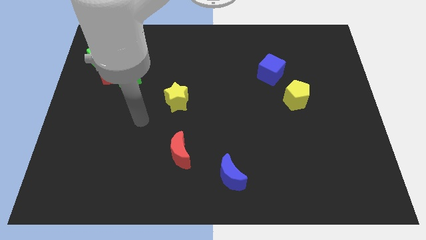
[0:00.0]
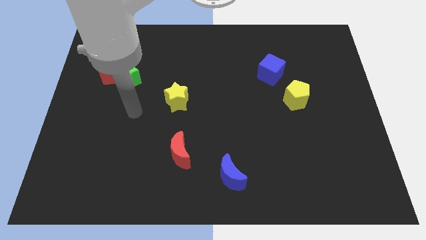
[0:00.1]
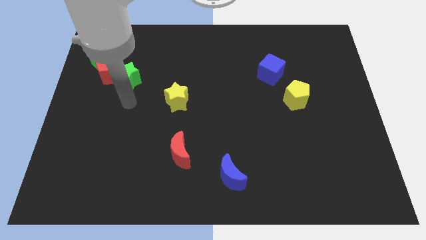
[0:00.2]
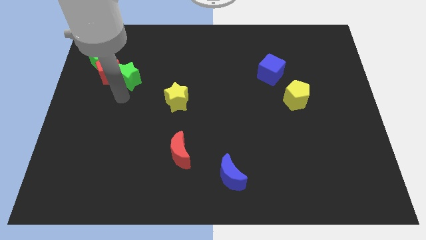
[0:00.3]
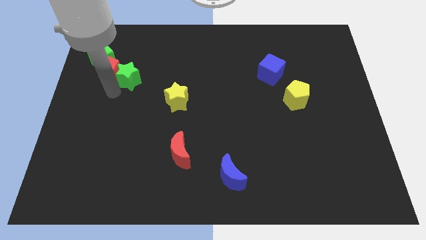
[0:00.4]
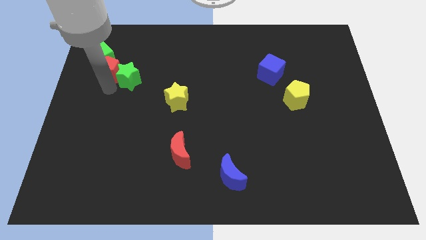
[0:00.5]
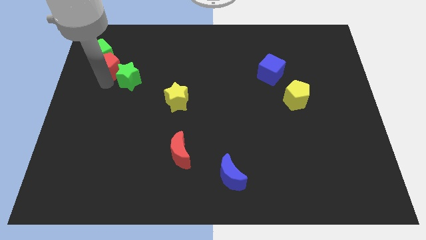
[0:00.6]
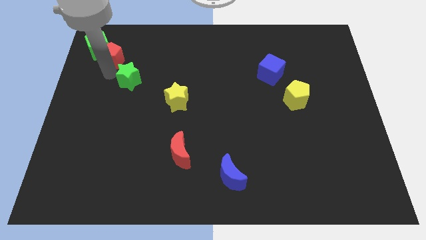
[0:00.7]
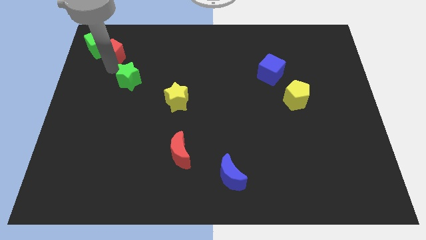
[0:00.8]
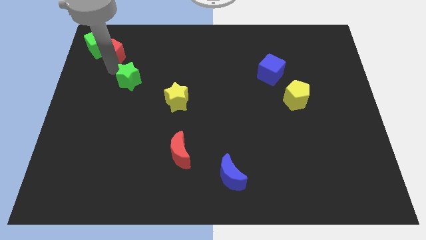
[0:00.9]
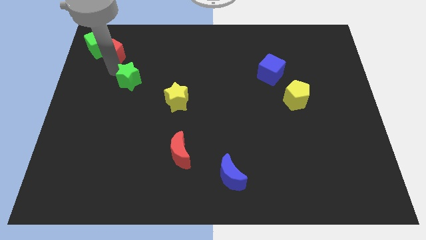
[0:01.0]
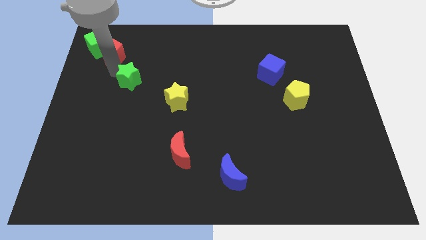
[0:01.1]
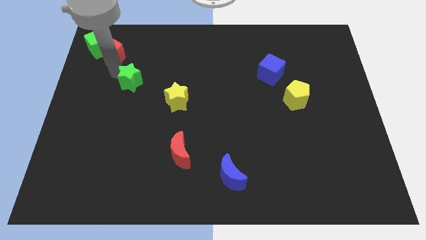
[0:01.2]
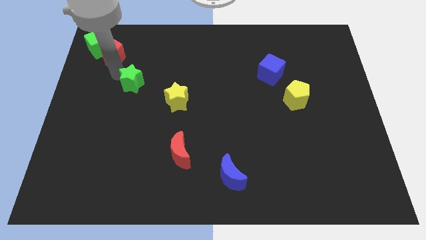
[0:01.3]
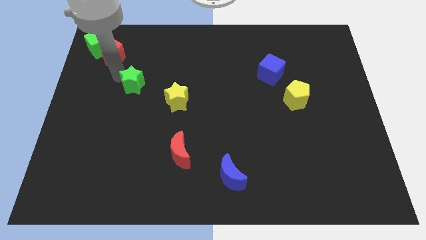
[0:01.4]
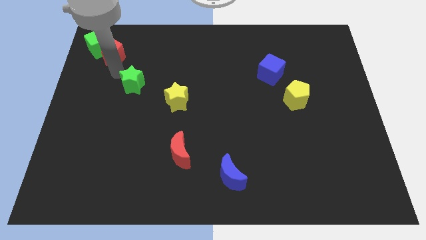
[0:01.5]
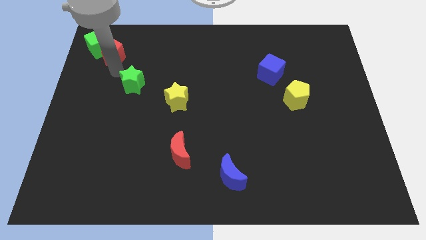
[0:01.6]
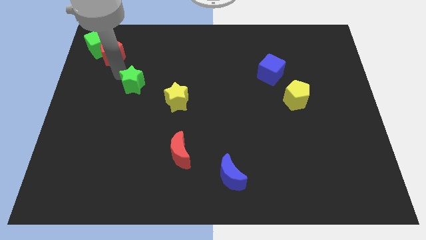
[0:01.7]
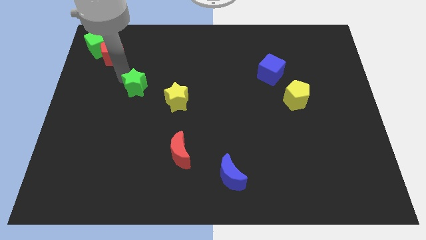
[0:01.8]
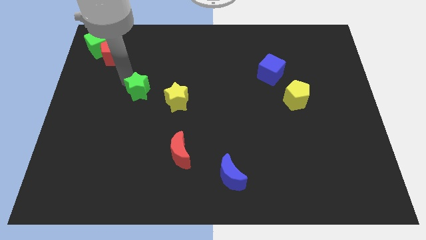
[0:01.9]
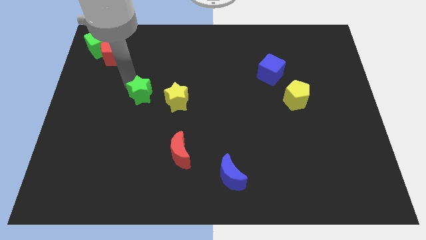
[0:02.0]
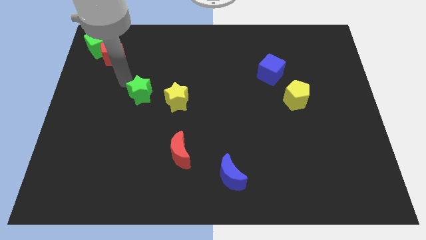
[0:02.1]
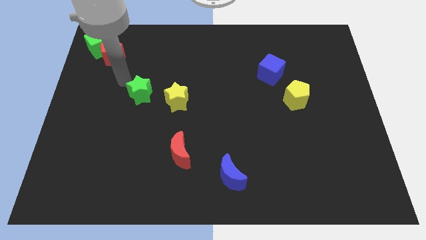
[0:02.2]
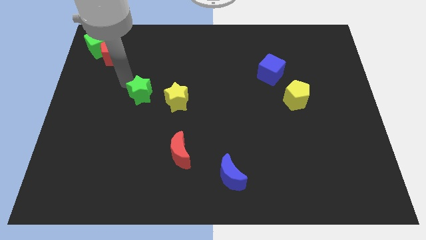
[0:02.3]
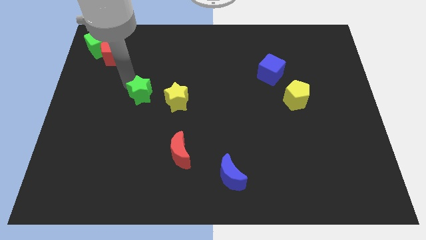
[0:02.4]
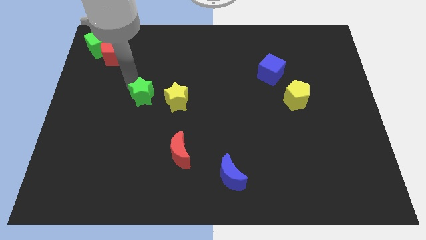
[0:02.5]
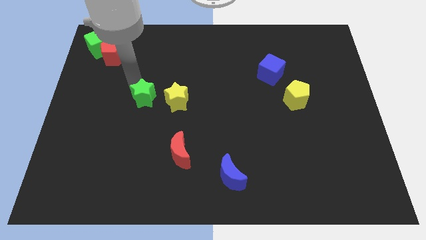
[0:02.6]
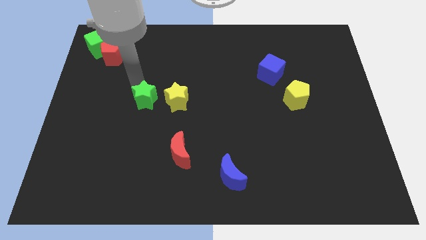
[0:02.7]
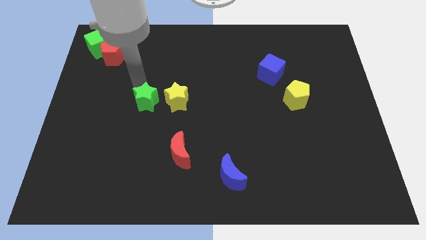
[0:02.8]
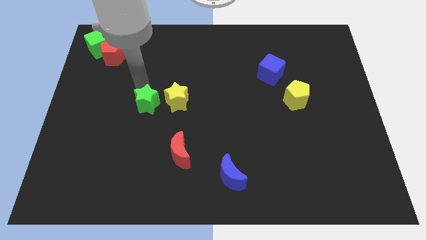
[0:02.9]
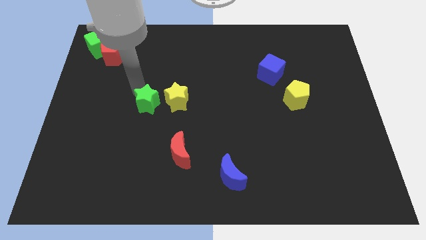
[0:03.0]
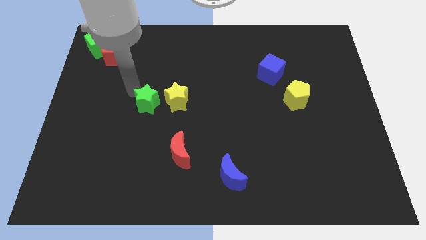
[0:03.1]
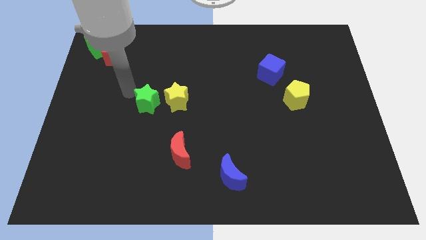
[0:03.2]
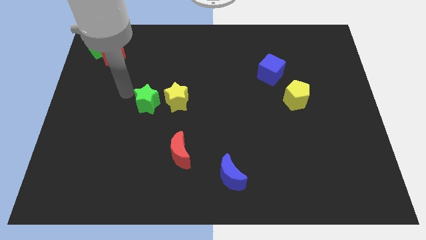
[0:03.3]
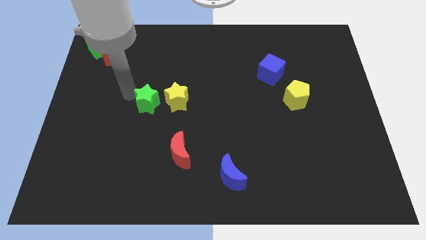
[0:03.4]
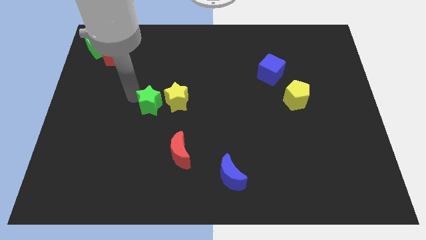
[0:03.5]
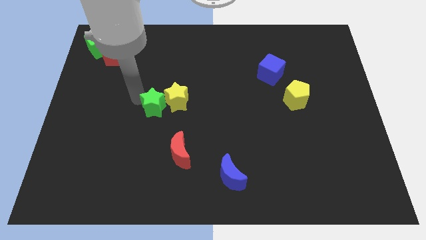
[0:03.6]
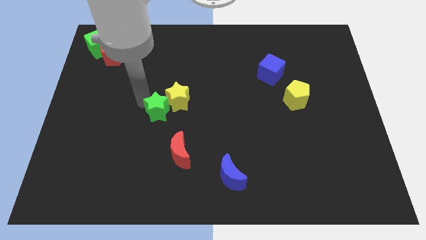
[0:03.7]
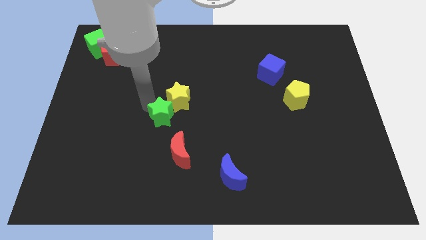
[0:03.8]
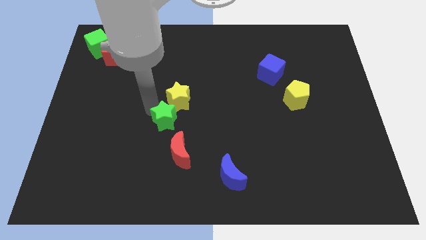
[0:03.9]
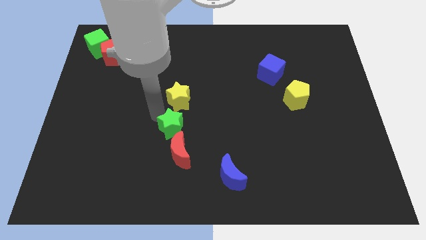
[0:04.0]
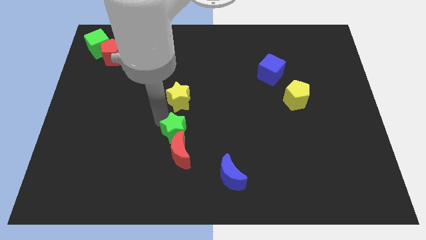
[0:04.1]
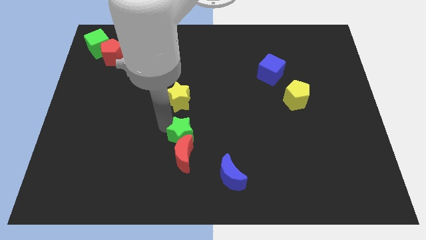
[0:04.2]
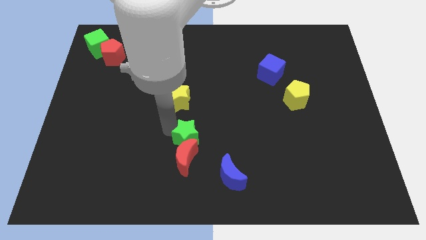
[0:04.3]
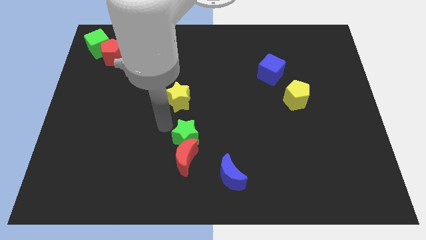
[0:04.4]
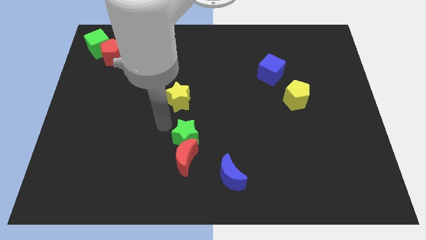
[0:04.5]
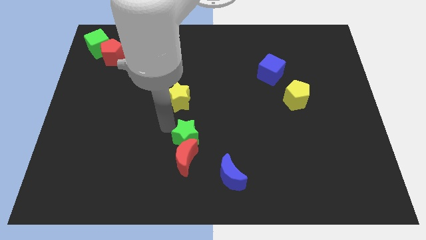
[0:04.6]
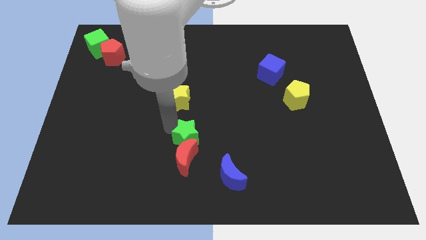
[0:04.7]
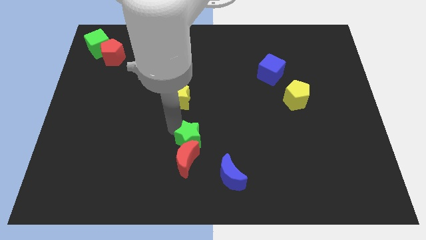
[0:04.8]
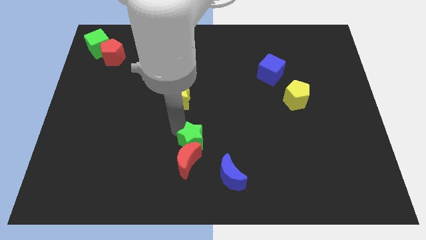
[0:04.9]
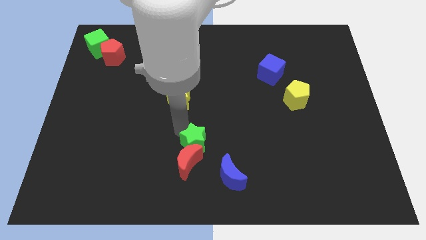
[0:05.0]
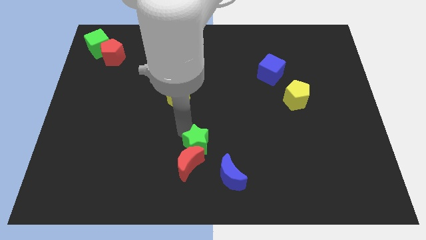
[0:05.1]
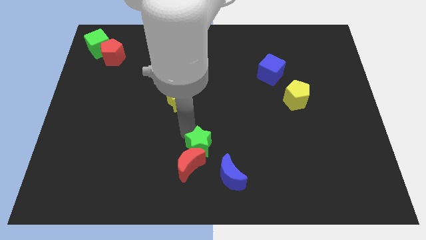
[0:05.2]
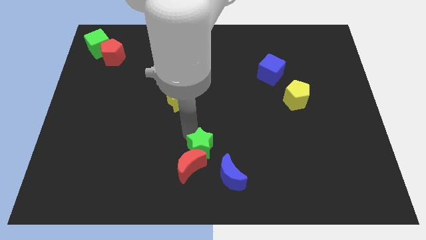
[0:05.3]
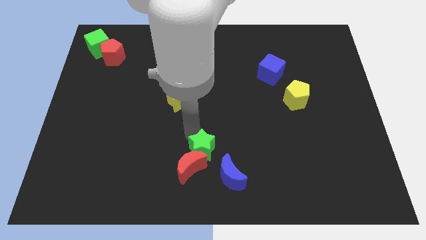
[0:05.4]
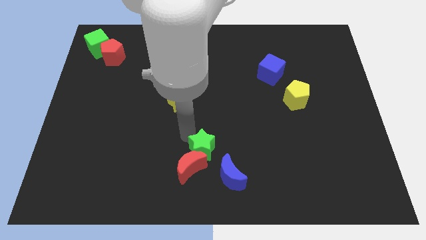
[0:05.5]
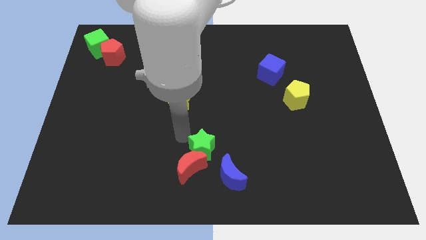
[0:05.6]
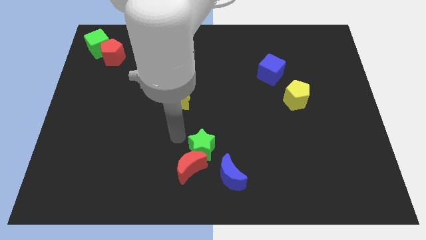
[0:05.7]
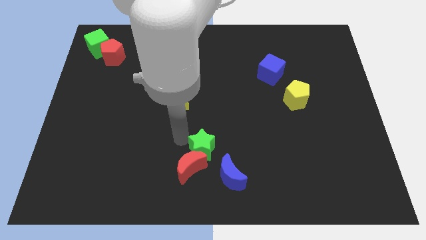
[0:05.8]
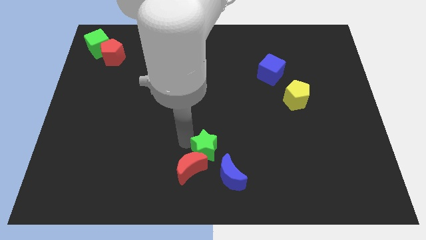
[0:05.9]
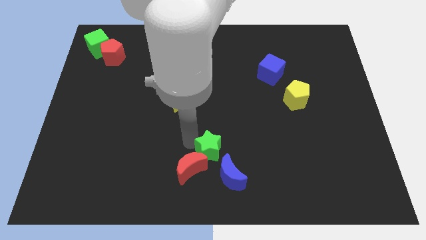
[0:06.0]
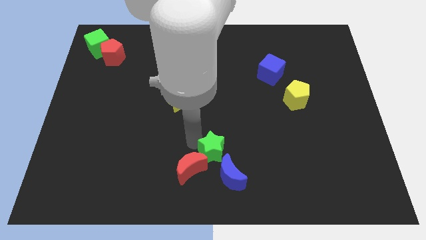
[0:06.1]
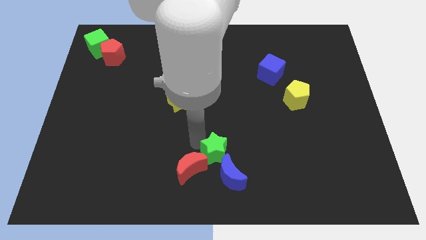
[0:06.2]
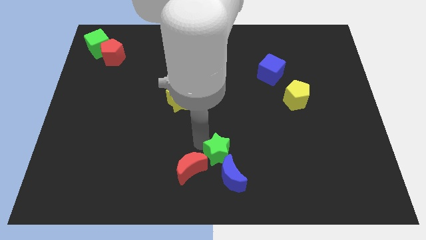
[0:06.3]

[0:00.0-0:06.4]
slide the green star close to the blue moon

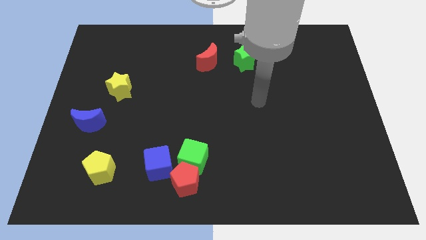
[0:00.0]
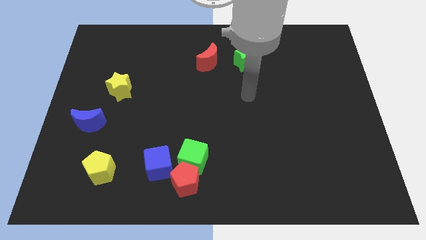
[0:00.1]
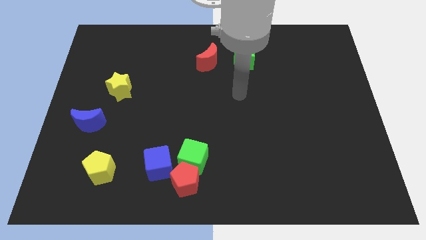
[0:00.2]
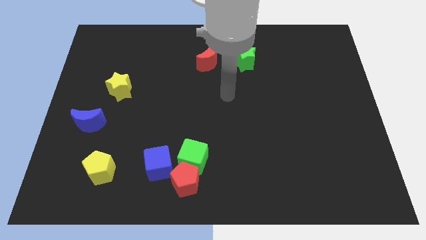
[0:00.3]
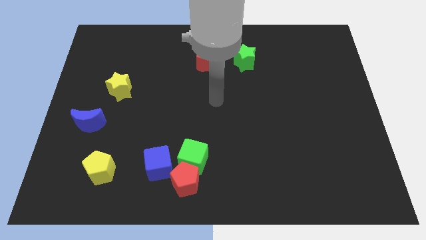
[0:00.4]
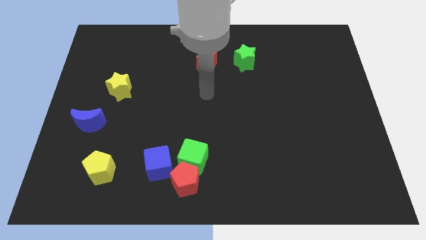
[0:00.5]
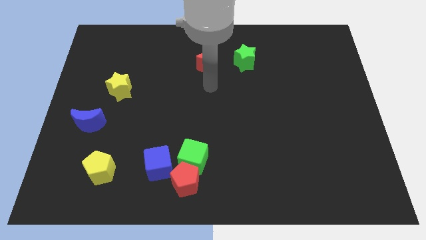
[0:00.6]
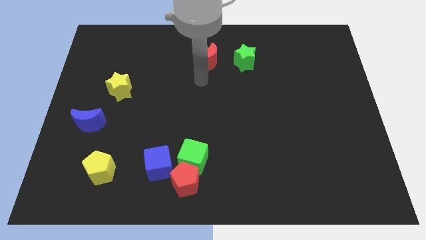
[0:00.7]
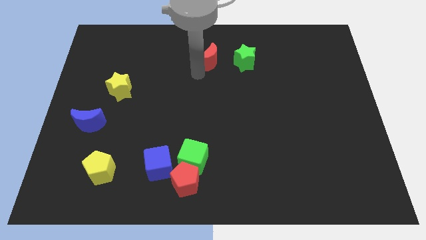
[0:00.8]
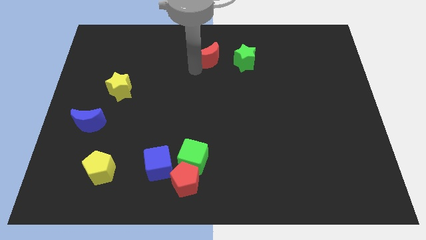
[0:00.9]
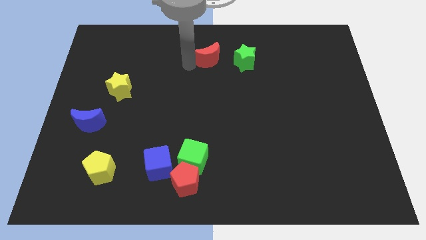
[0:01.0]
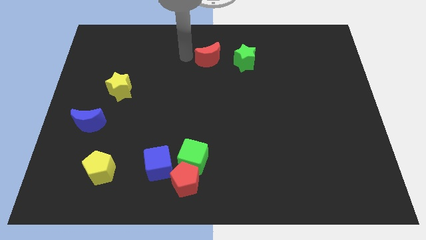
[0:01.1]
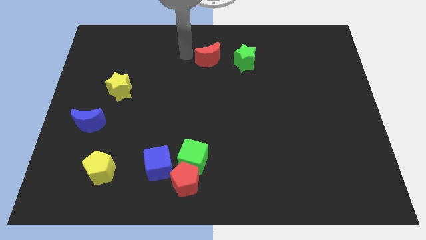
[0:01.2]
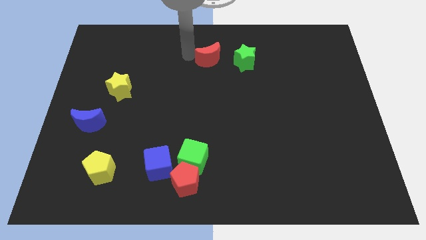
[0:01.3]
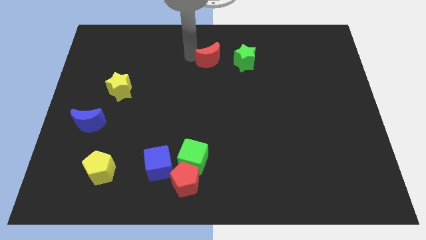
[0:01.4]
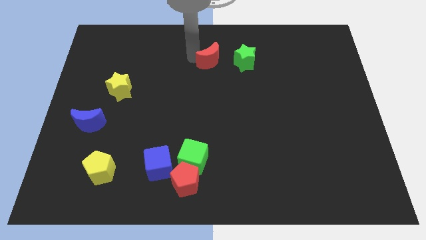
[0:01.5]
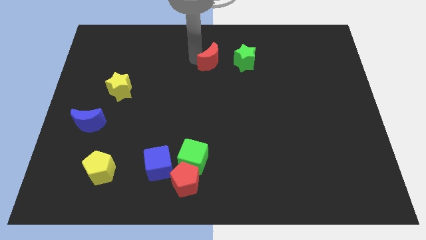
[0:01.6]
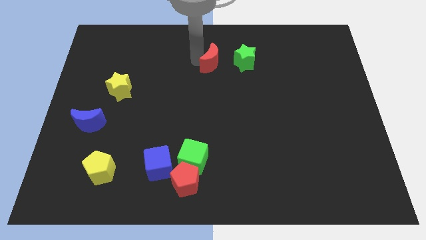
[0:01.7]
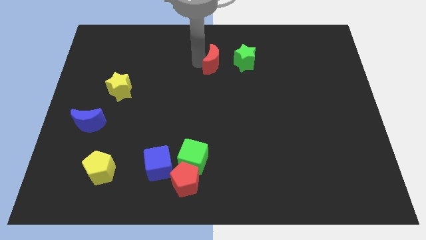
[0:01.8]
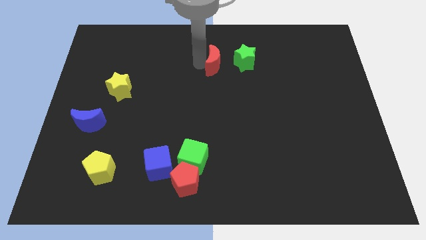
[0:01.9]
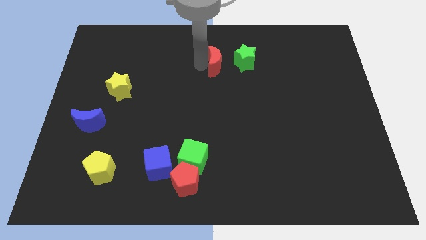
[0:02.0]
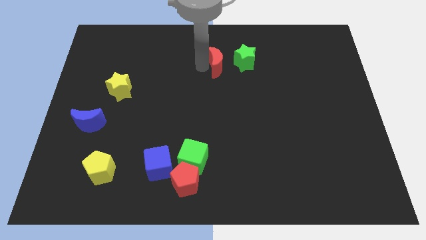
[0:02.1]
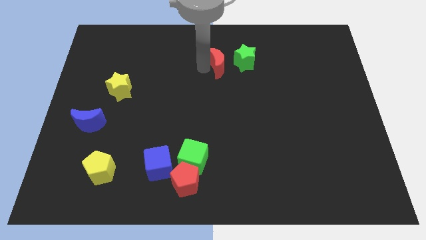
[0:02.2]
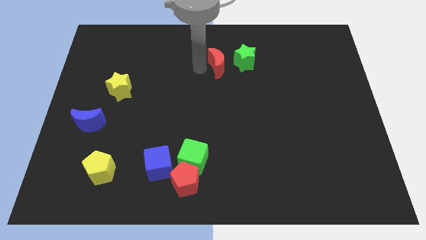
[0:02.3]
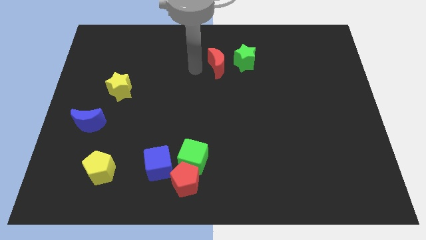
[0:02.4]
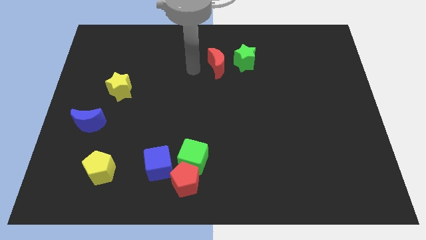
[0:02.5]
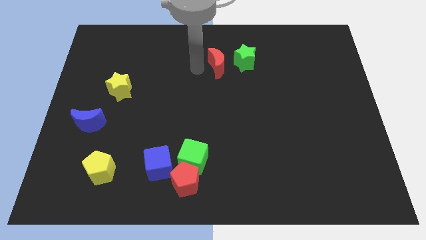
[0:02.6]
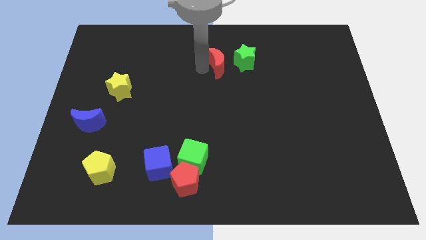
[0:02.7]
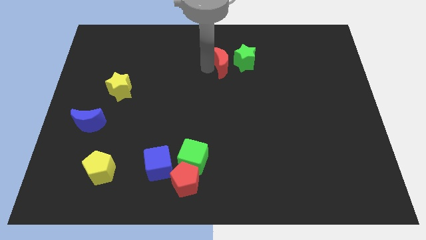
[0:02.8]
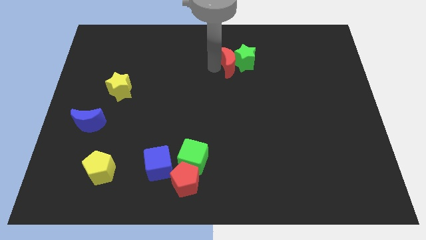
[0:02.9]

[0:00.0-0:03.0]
slide the red moon to the green star
